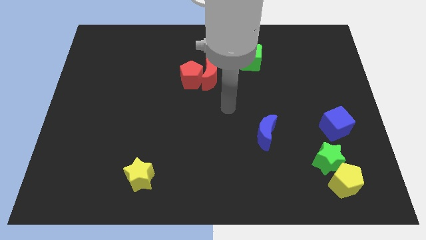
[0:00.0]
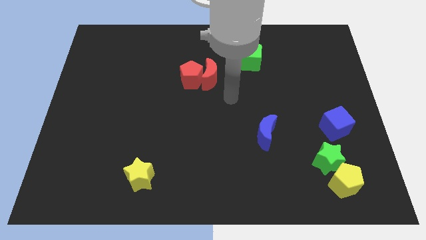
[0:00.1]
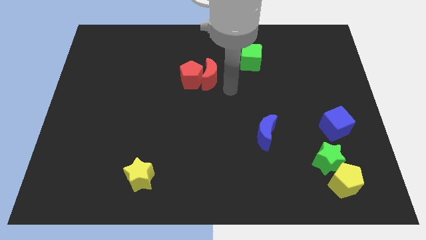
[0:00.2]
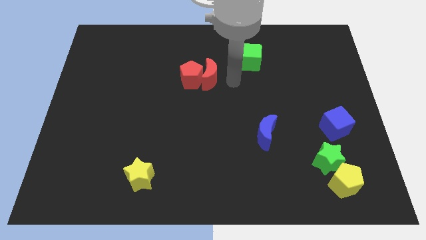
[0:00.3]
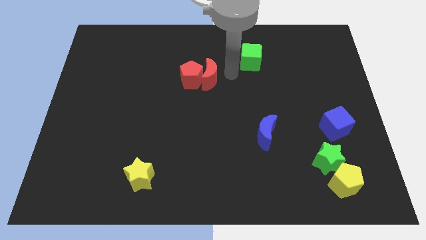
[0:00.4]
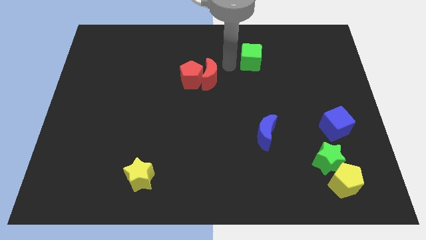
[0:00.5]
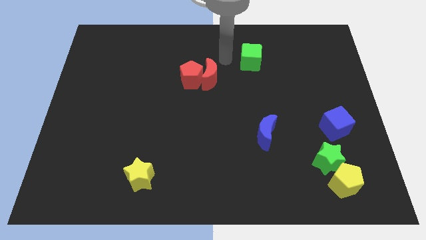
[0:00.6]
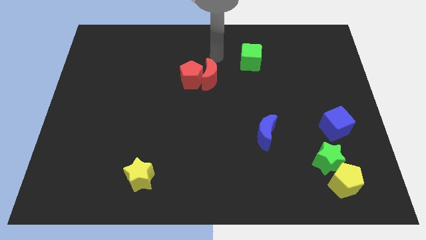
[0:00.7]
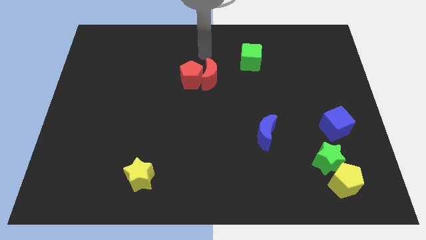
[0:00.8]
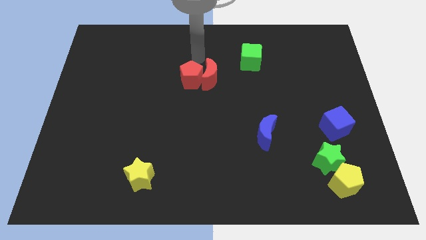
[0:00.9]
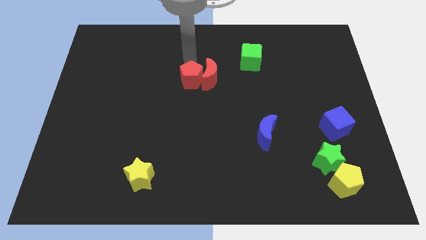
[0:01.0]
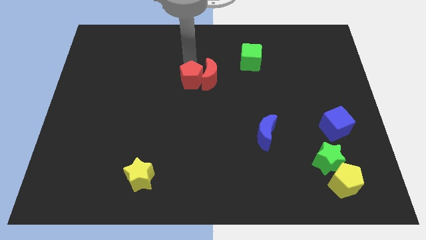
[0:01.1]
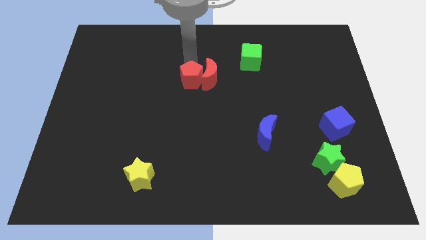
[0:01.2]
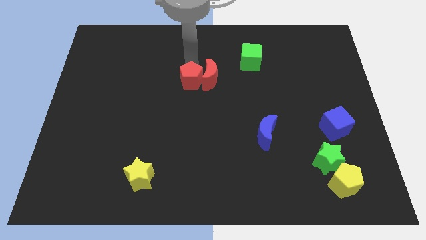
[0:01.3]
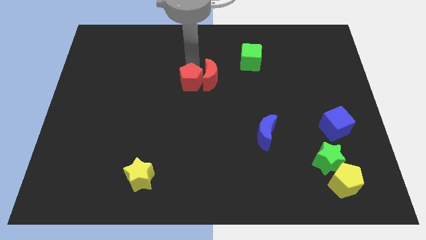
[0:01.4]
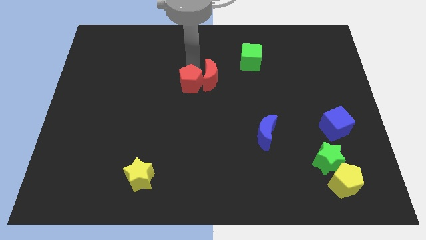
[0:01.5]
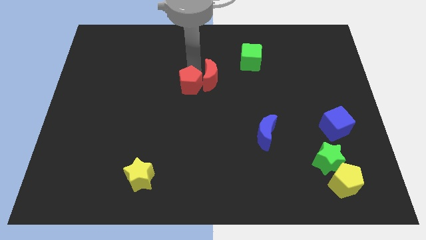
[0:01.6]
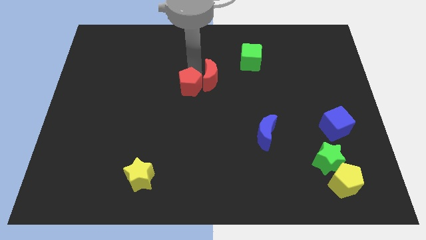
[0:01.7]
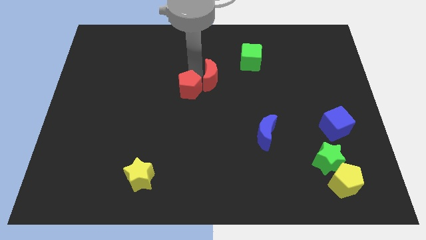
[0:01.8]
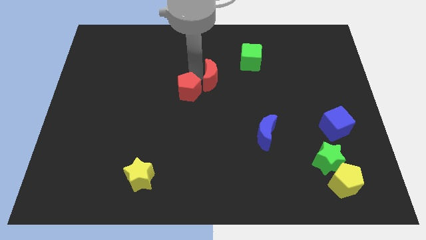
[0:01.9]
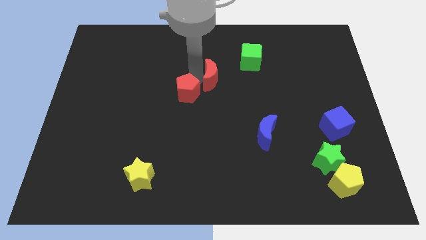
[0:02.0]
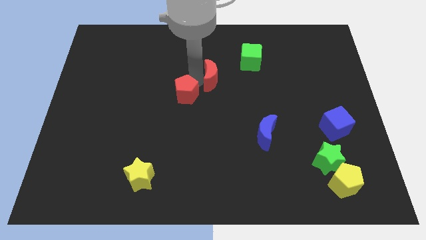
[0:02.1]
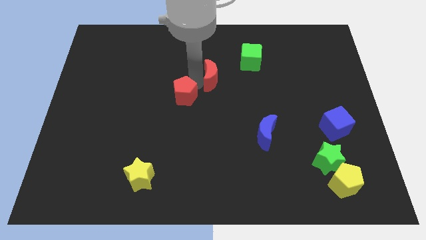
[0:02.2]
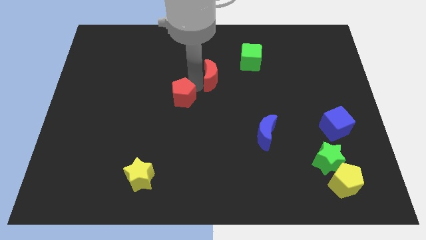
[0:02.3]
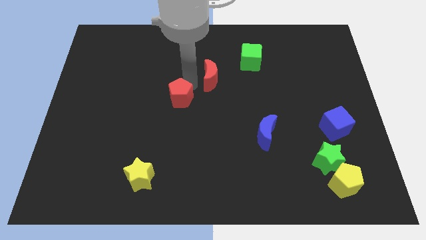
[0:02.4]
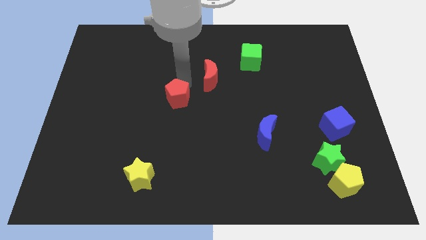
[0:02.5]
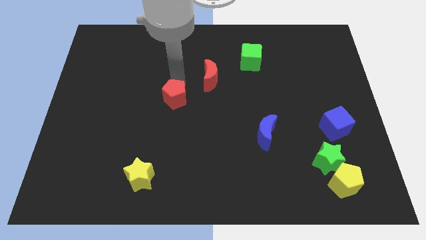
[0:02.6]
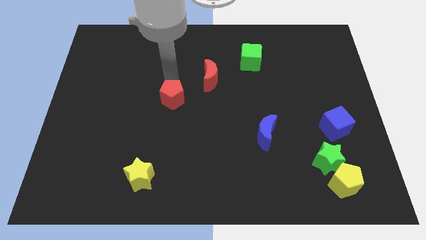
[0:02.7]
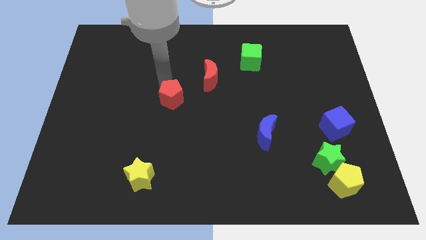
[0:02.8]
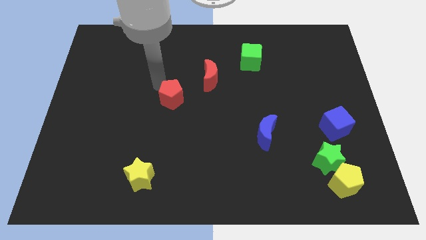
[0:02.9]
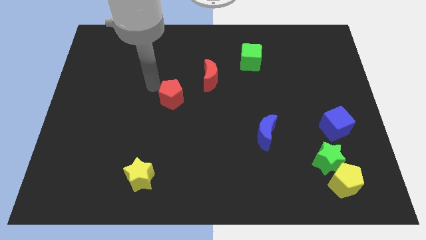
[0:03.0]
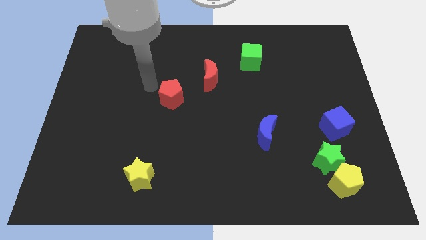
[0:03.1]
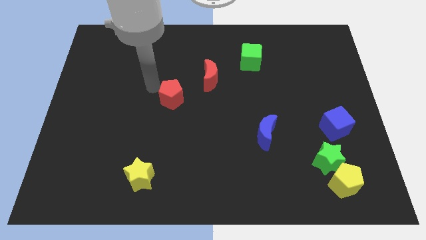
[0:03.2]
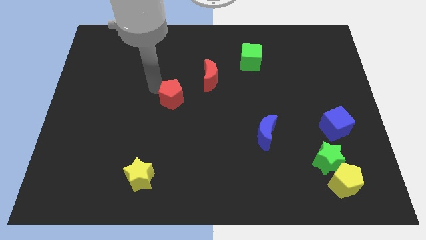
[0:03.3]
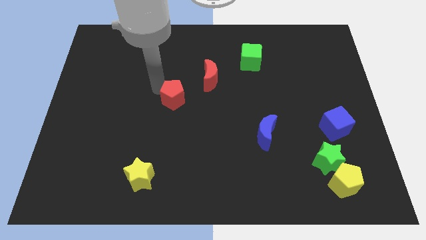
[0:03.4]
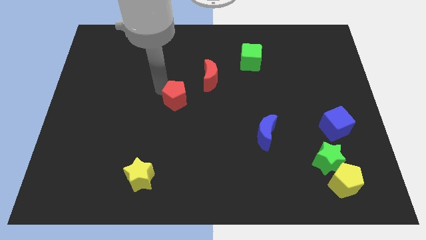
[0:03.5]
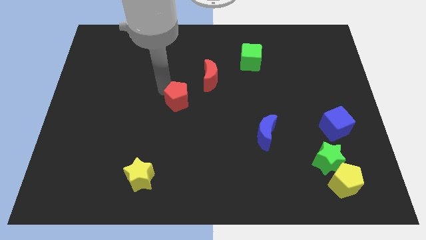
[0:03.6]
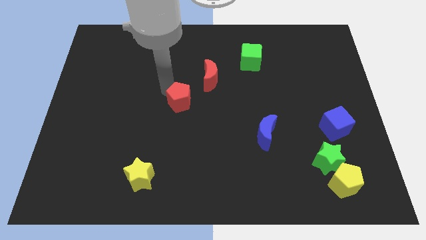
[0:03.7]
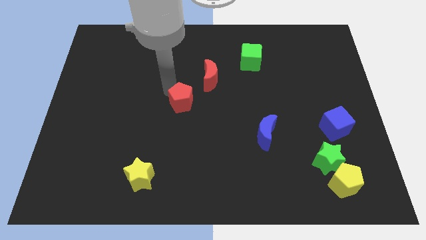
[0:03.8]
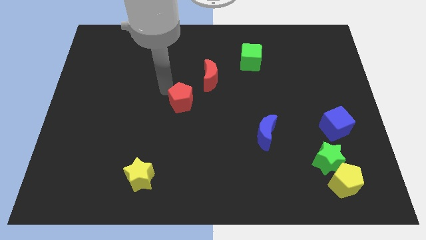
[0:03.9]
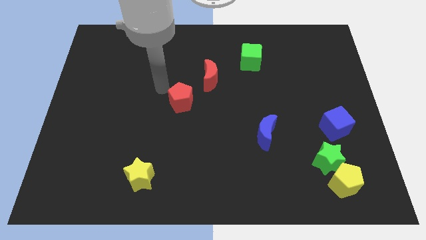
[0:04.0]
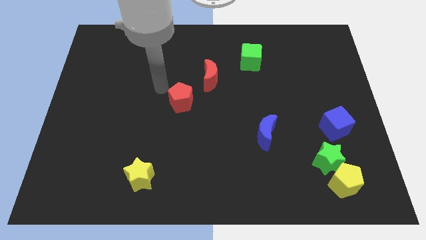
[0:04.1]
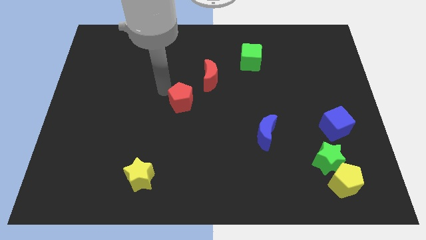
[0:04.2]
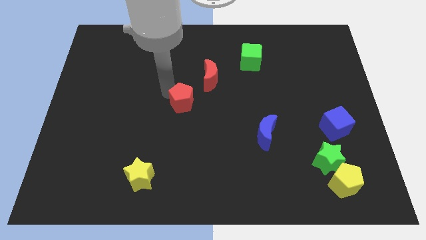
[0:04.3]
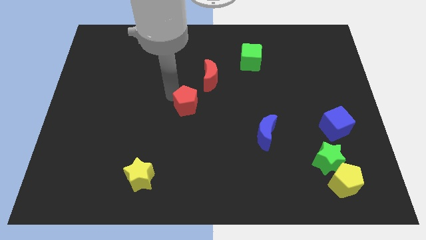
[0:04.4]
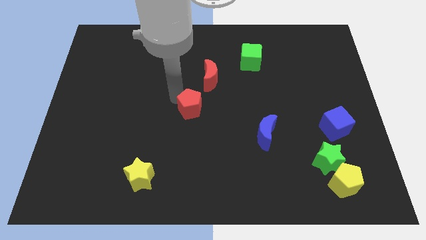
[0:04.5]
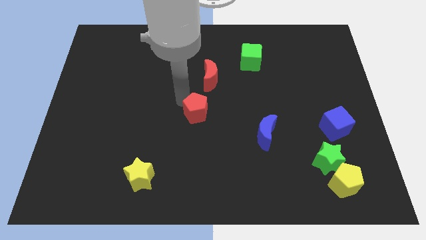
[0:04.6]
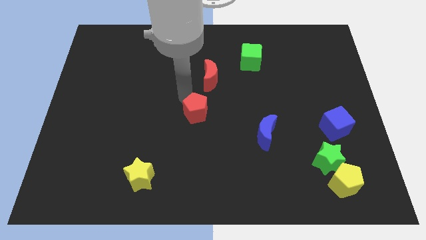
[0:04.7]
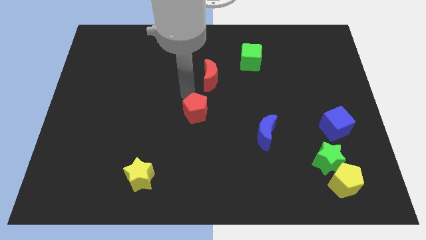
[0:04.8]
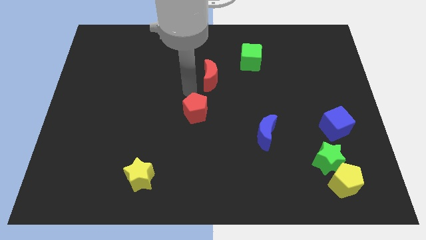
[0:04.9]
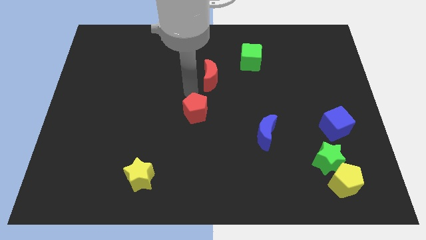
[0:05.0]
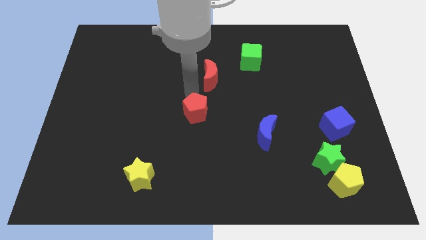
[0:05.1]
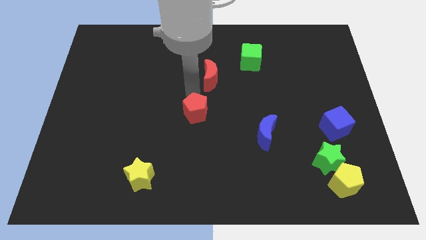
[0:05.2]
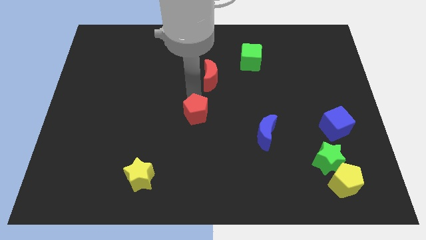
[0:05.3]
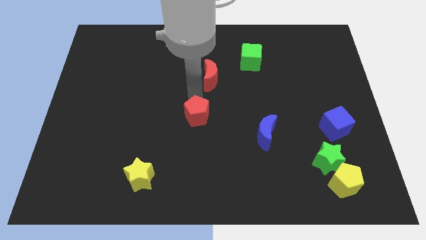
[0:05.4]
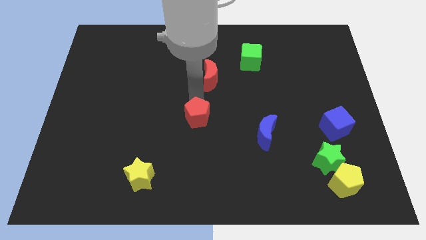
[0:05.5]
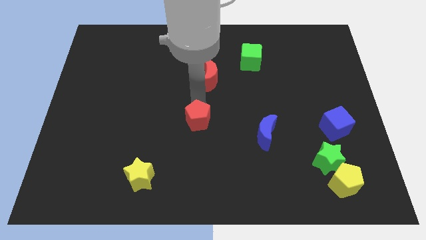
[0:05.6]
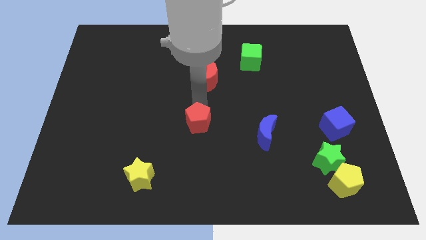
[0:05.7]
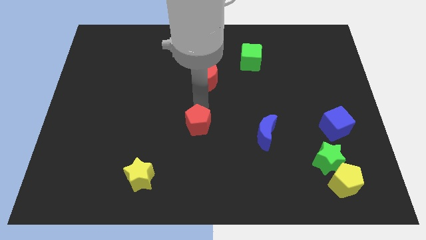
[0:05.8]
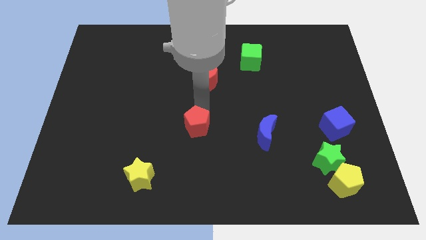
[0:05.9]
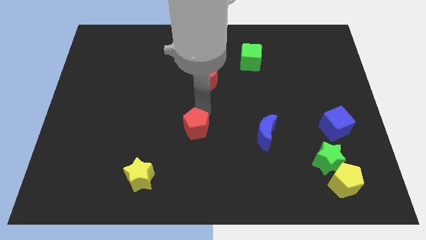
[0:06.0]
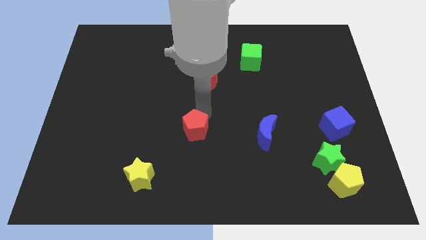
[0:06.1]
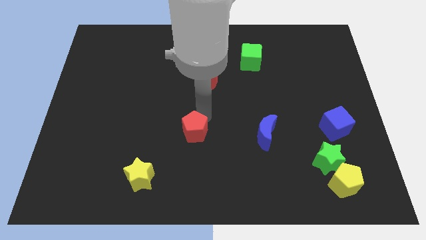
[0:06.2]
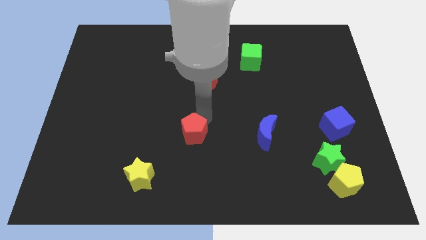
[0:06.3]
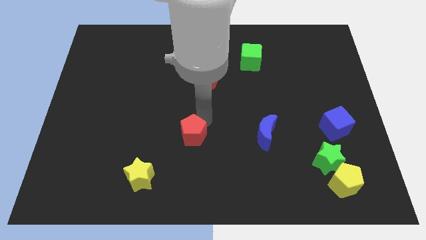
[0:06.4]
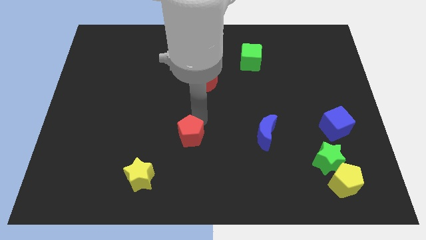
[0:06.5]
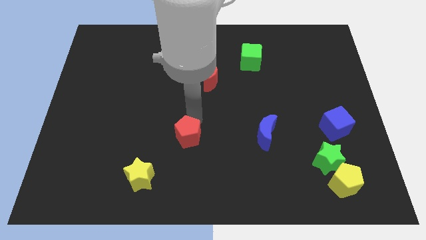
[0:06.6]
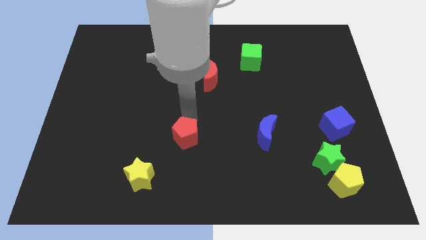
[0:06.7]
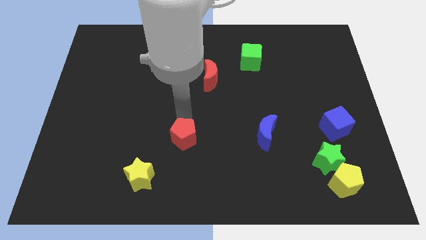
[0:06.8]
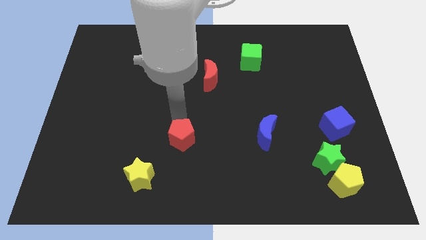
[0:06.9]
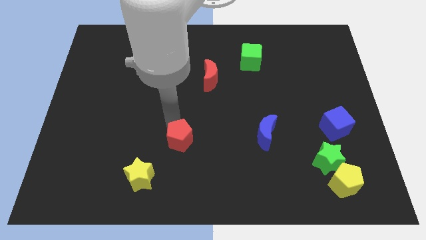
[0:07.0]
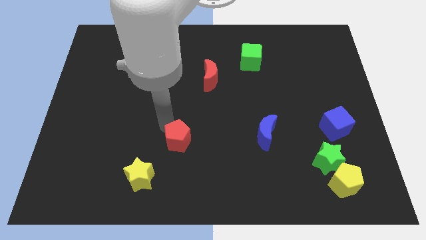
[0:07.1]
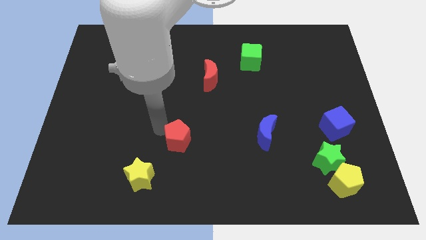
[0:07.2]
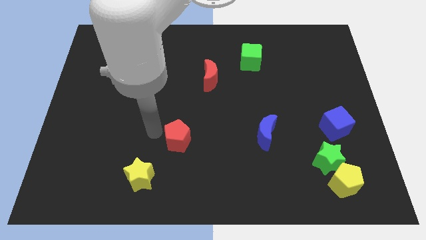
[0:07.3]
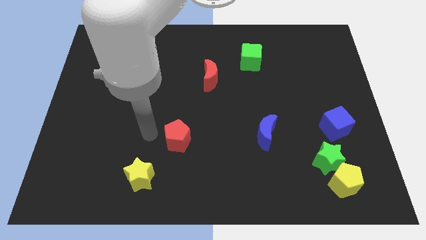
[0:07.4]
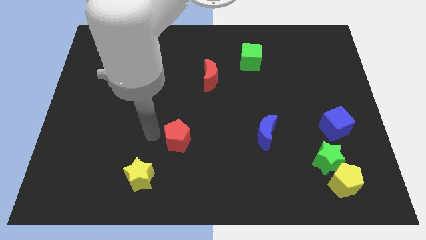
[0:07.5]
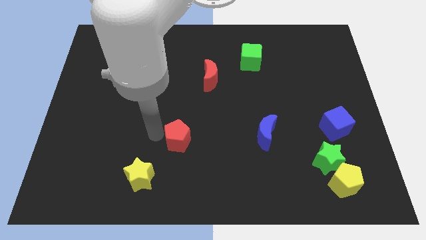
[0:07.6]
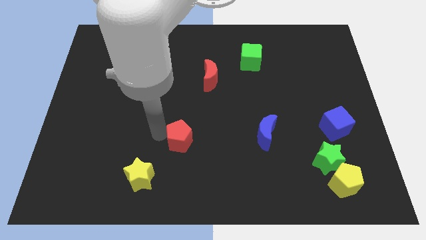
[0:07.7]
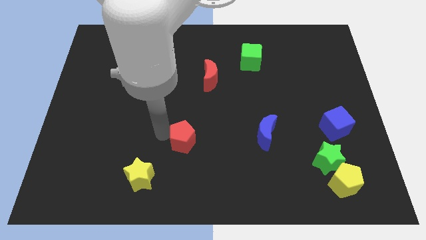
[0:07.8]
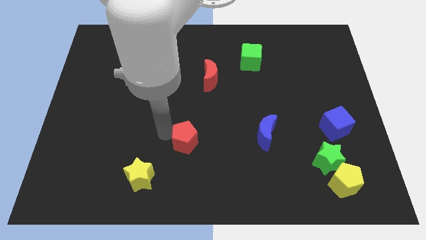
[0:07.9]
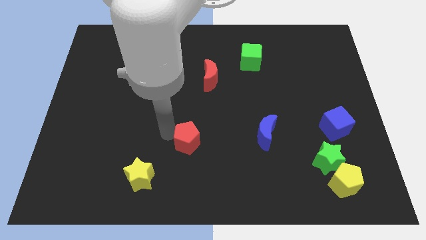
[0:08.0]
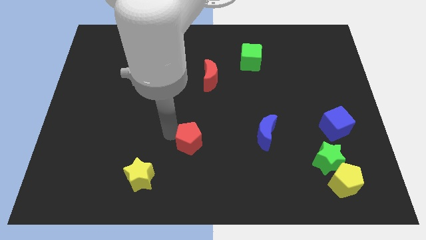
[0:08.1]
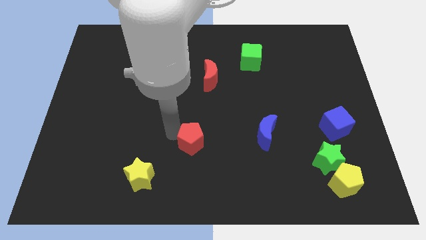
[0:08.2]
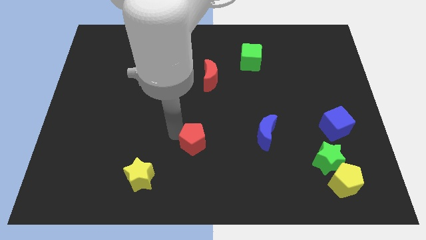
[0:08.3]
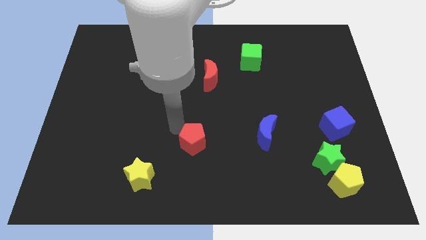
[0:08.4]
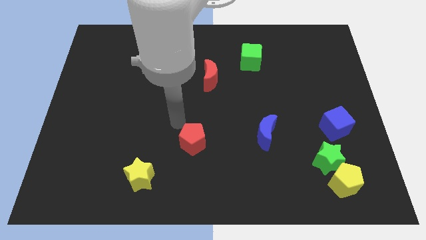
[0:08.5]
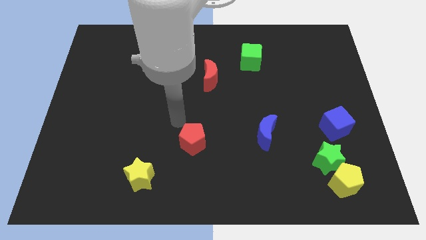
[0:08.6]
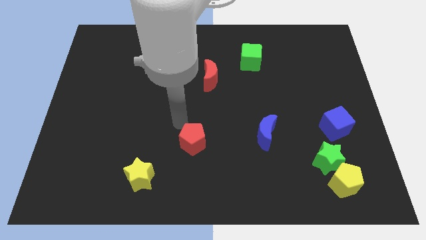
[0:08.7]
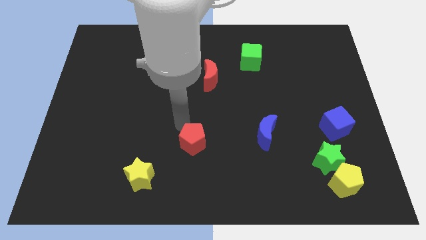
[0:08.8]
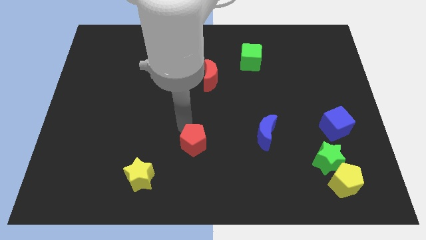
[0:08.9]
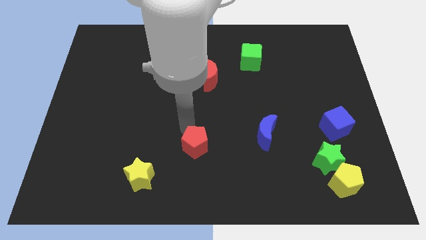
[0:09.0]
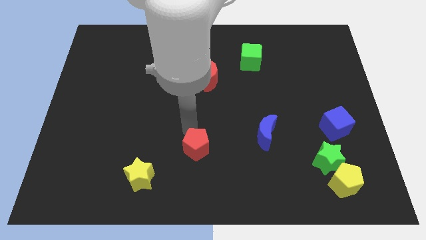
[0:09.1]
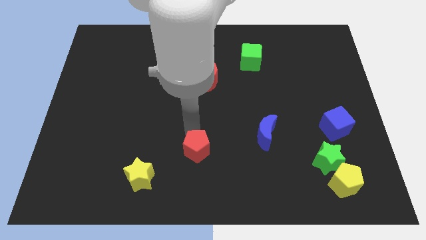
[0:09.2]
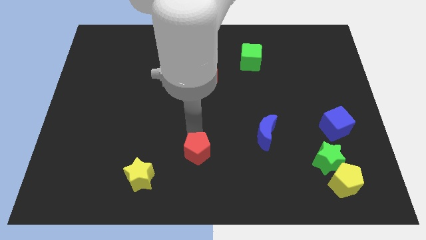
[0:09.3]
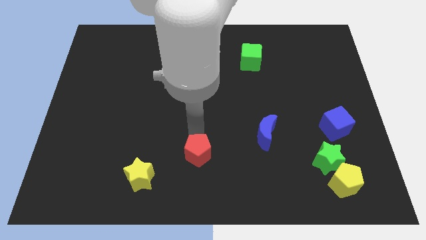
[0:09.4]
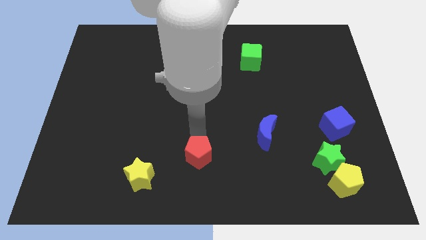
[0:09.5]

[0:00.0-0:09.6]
move the red pentagon to the bottom side
